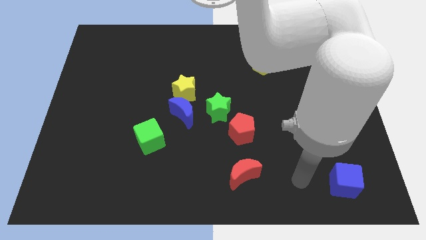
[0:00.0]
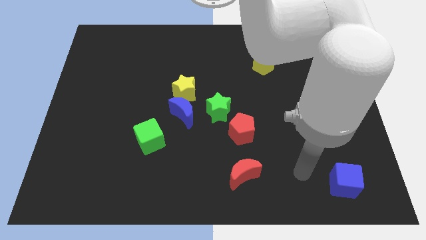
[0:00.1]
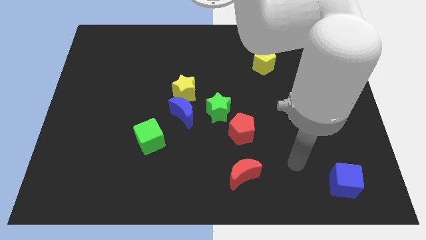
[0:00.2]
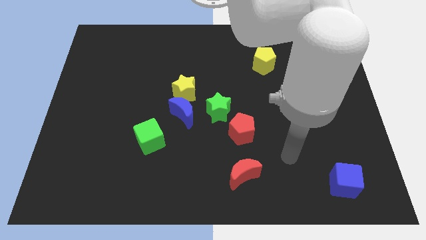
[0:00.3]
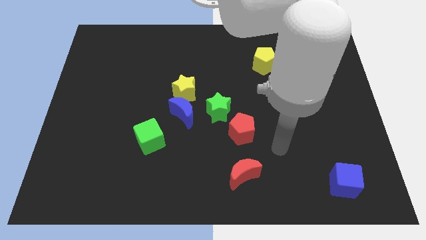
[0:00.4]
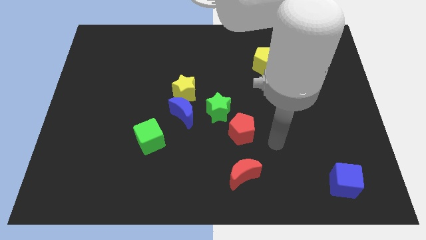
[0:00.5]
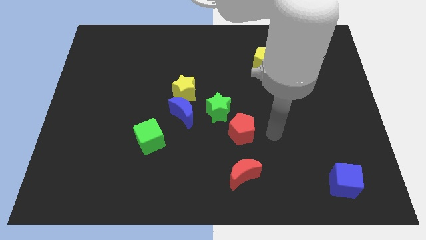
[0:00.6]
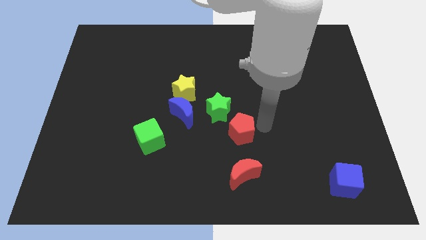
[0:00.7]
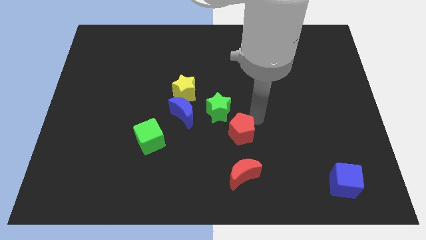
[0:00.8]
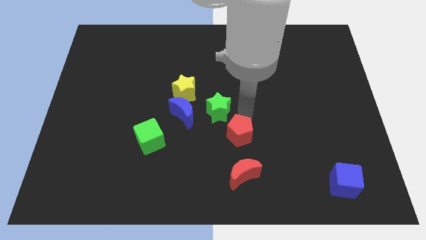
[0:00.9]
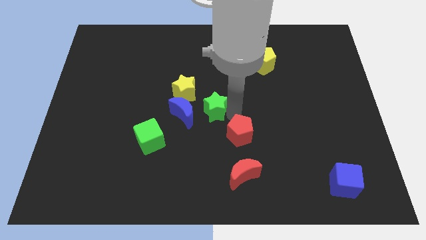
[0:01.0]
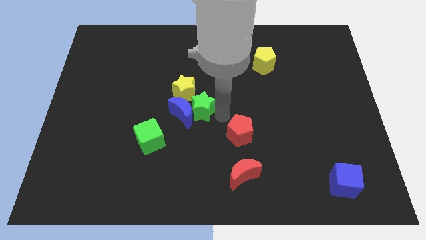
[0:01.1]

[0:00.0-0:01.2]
separate the red pentagon from the green star

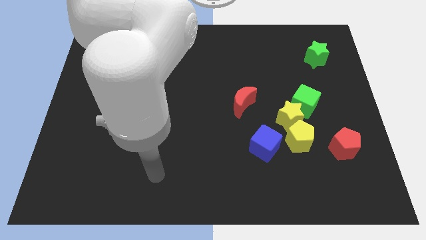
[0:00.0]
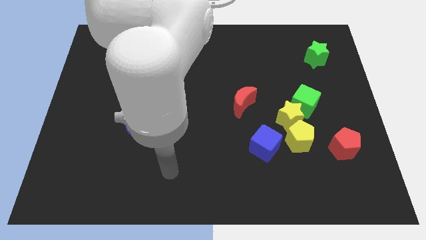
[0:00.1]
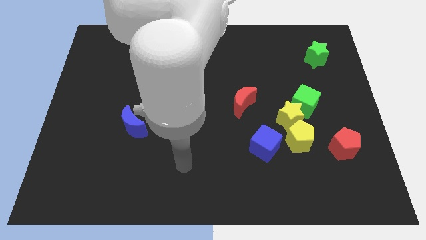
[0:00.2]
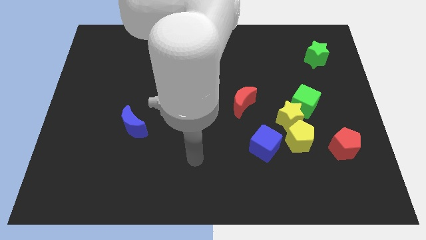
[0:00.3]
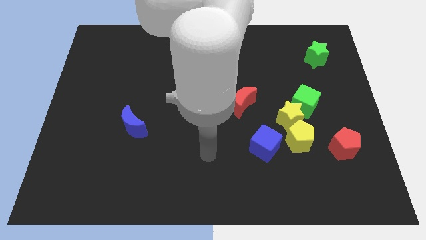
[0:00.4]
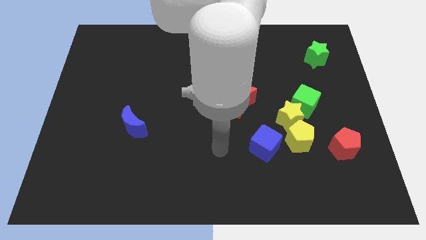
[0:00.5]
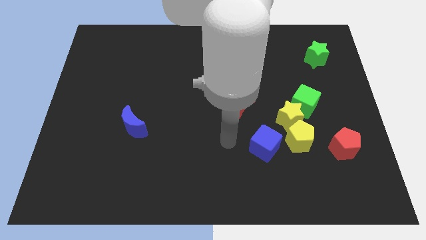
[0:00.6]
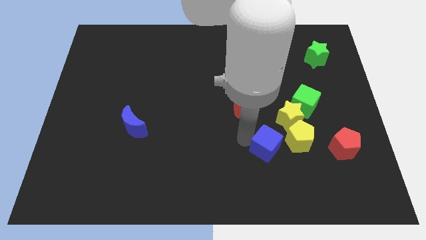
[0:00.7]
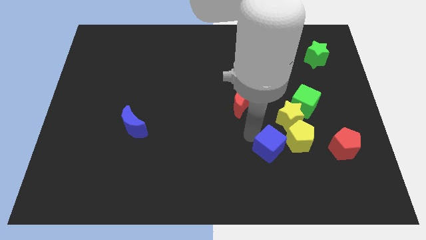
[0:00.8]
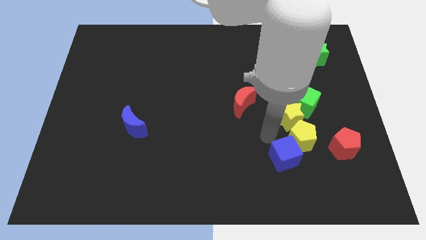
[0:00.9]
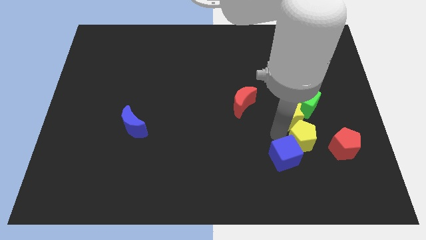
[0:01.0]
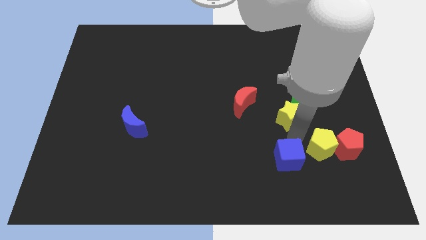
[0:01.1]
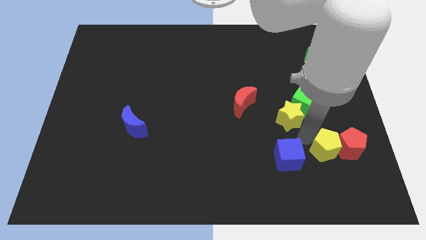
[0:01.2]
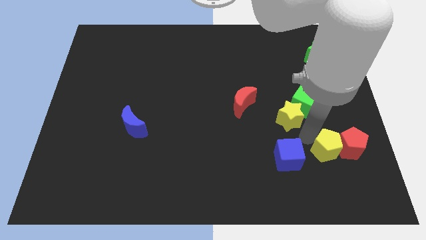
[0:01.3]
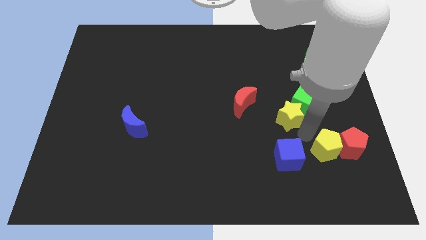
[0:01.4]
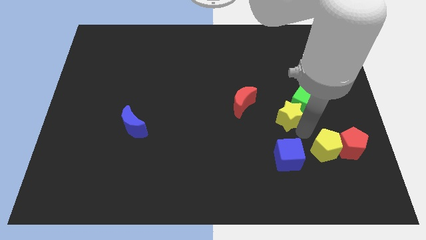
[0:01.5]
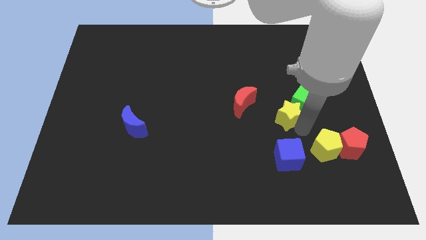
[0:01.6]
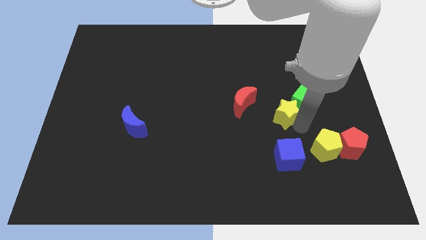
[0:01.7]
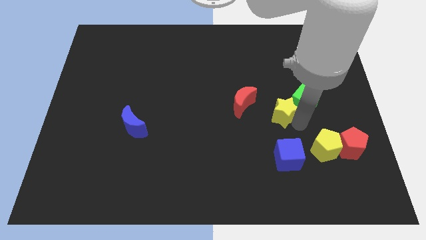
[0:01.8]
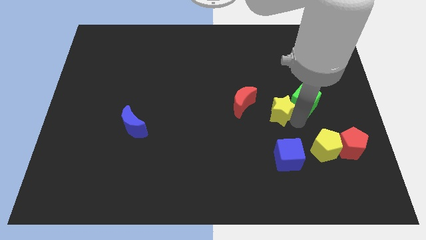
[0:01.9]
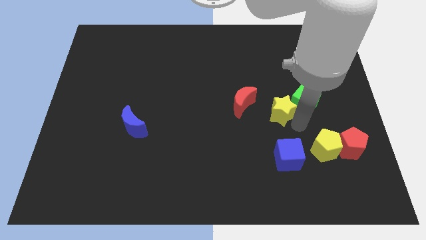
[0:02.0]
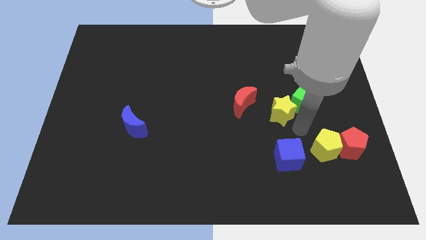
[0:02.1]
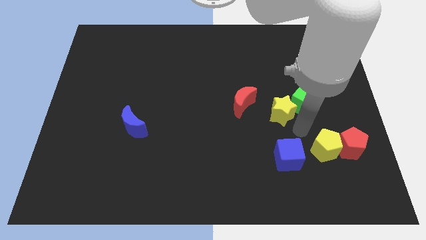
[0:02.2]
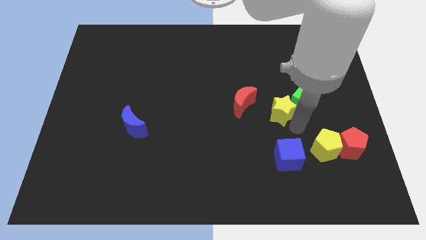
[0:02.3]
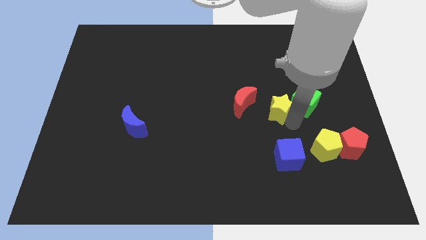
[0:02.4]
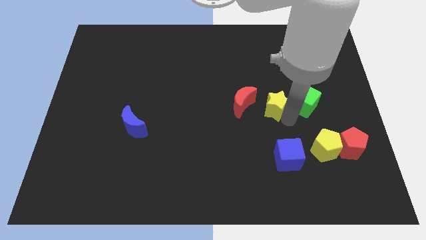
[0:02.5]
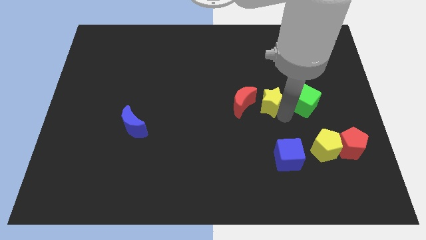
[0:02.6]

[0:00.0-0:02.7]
pull the yellow star apart from the green cube, yellow pentagon, and blue cube

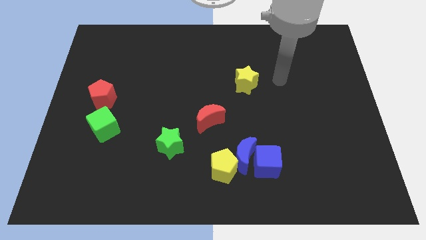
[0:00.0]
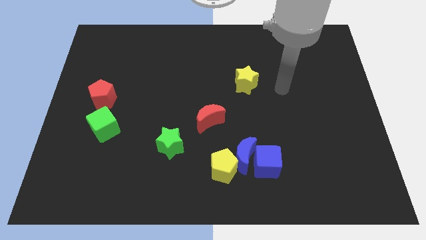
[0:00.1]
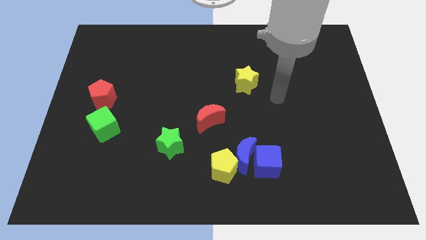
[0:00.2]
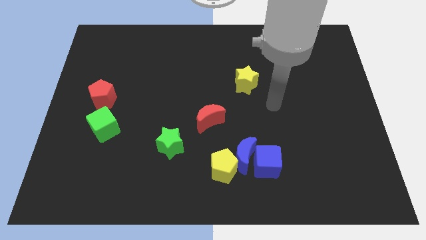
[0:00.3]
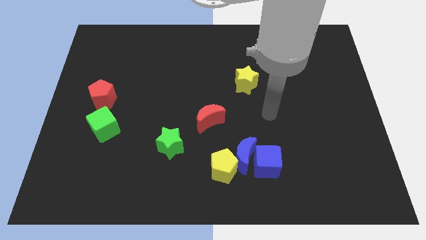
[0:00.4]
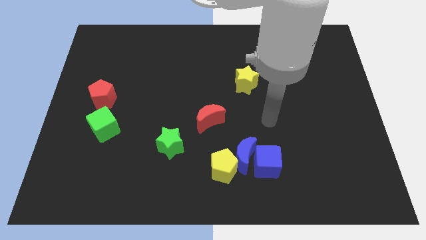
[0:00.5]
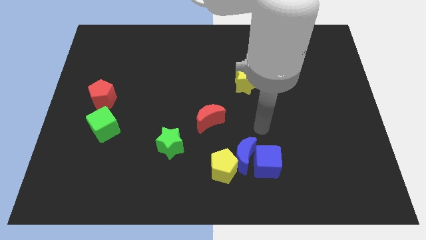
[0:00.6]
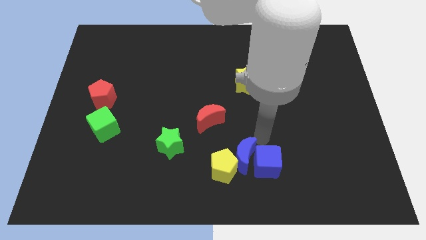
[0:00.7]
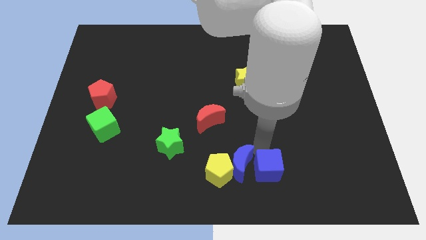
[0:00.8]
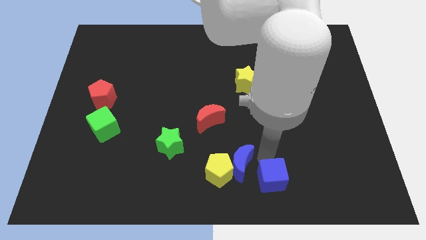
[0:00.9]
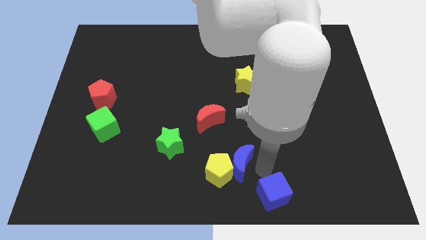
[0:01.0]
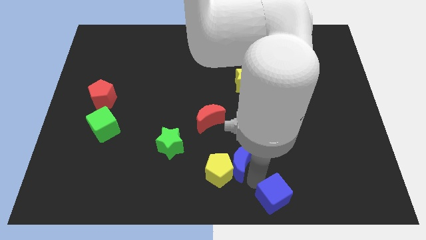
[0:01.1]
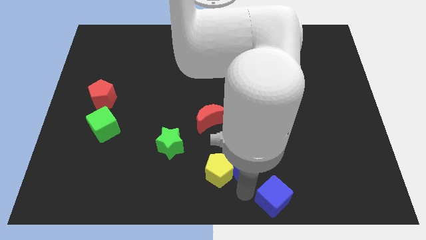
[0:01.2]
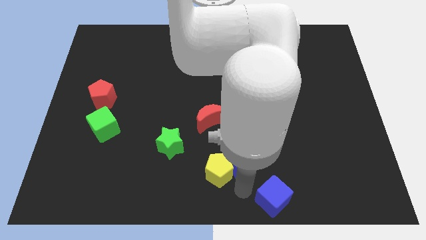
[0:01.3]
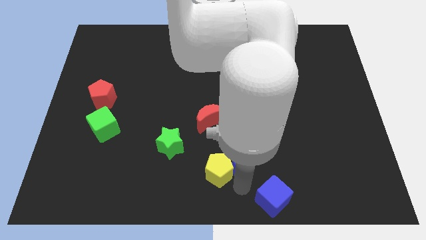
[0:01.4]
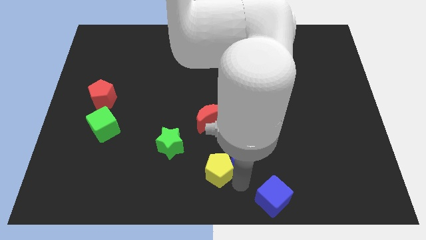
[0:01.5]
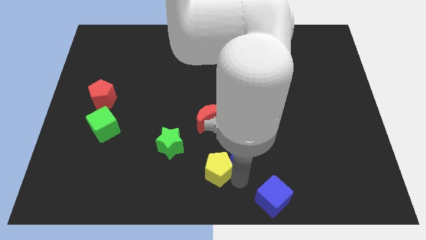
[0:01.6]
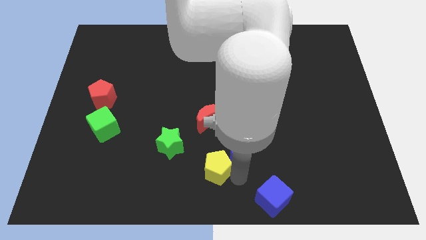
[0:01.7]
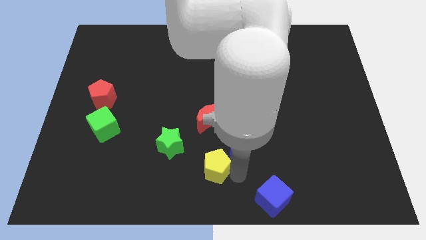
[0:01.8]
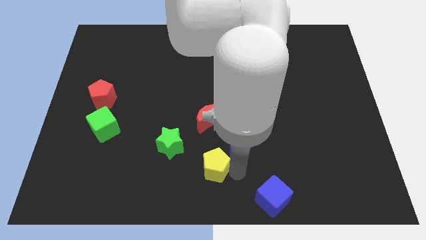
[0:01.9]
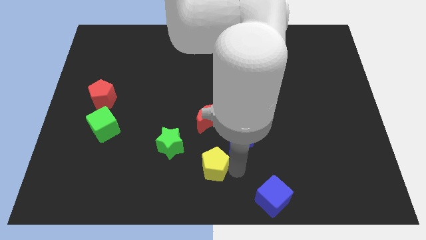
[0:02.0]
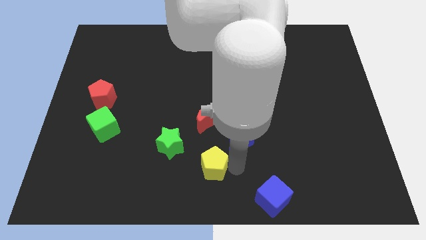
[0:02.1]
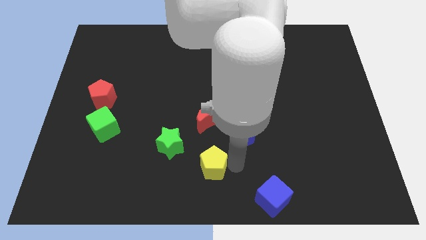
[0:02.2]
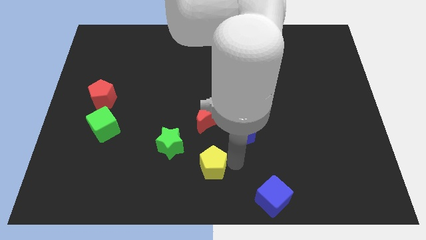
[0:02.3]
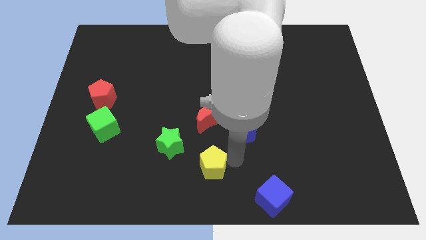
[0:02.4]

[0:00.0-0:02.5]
separate the blue moon from the blue cube and yellow pentagon

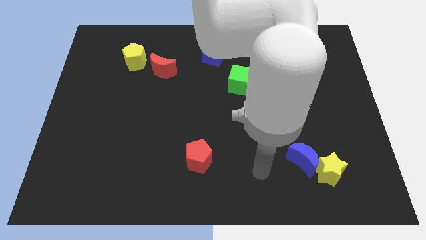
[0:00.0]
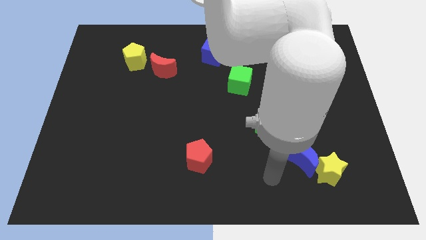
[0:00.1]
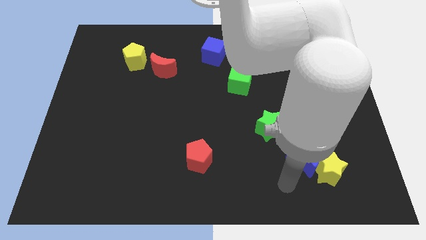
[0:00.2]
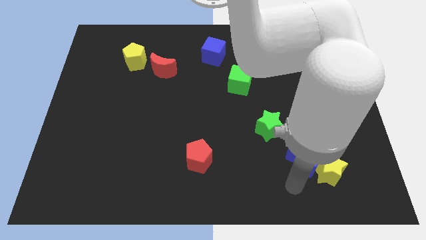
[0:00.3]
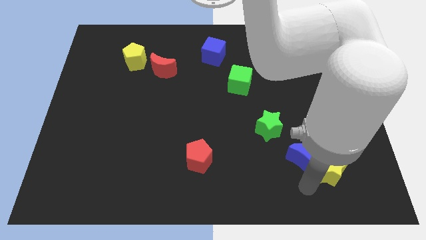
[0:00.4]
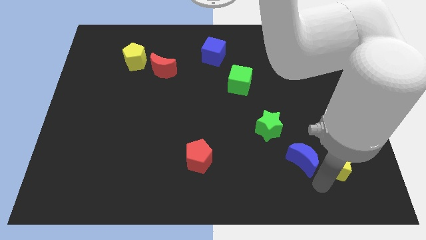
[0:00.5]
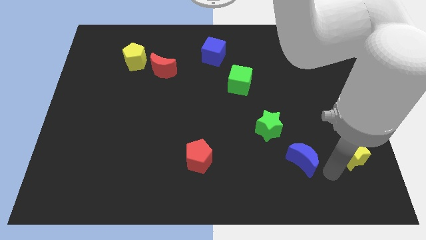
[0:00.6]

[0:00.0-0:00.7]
separate the blue moon from the yellow star

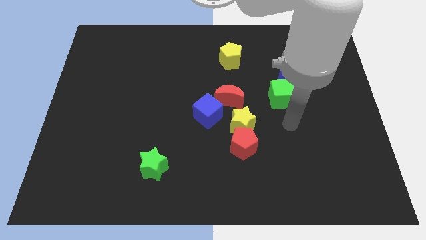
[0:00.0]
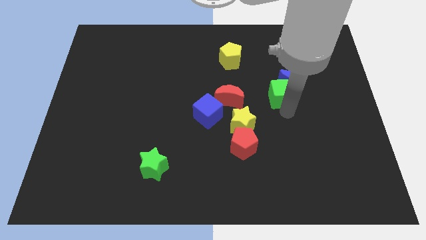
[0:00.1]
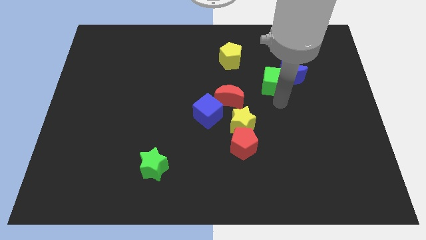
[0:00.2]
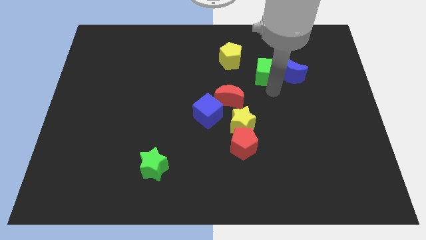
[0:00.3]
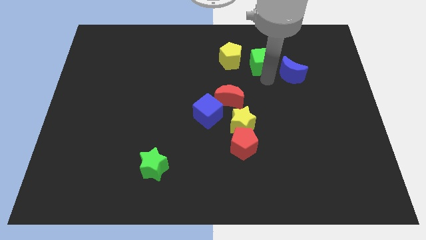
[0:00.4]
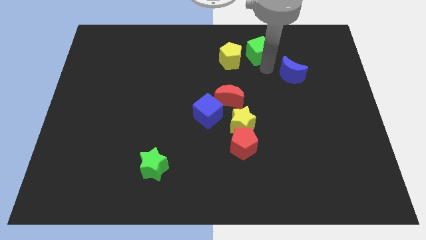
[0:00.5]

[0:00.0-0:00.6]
separate the blue moon from the green cube

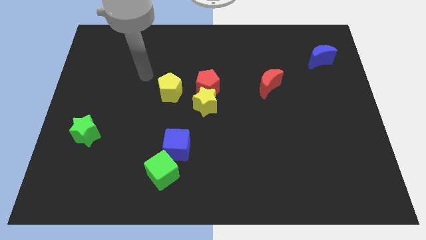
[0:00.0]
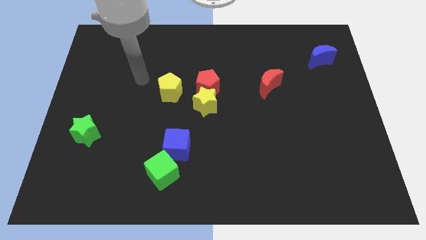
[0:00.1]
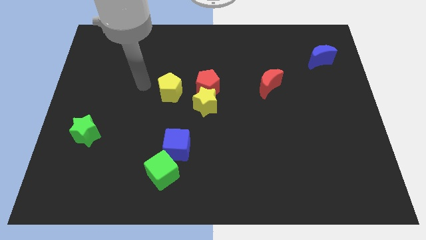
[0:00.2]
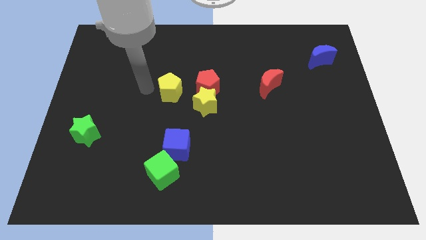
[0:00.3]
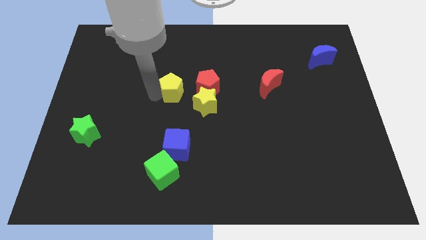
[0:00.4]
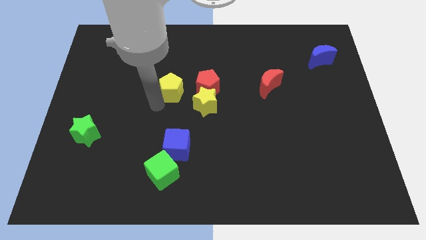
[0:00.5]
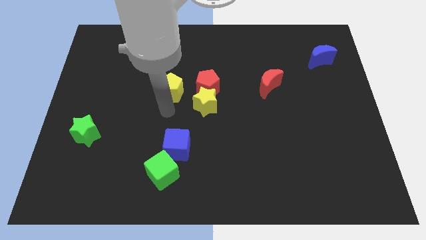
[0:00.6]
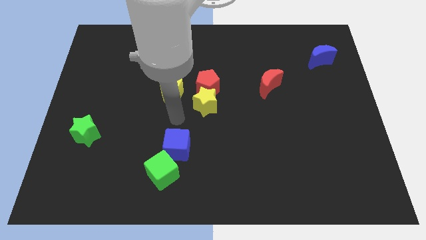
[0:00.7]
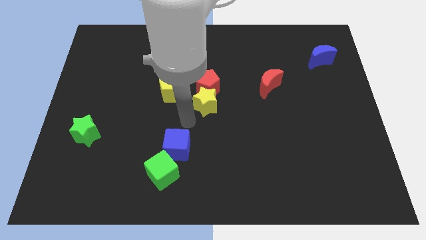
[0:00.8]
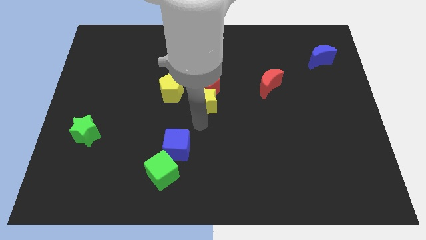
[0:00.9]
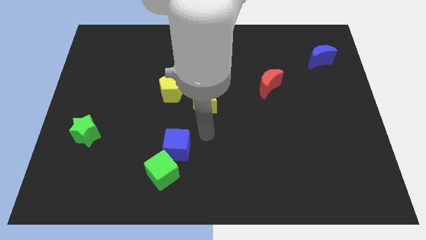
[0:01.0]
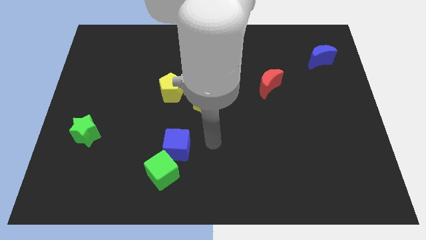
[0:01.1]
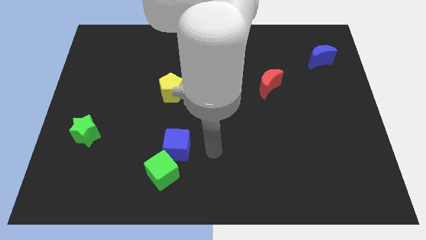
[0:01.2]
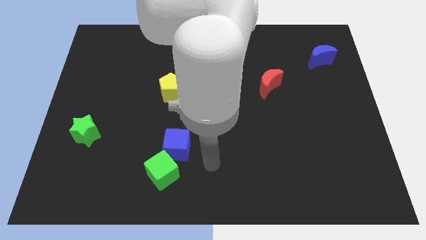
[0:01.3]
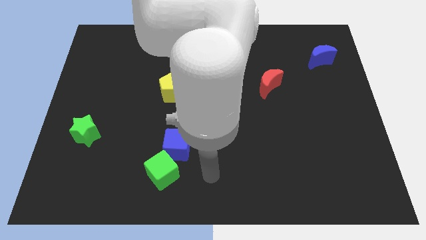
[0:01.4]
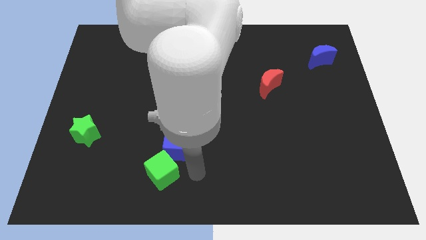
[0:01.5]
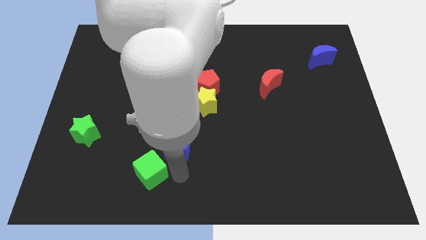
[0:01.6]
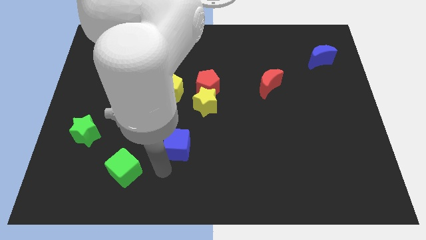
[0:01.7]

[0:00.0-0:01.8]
move the blue cube away from the green cube
